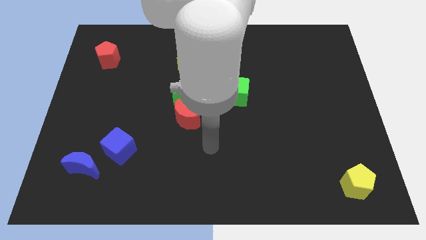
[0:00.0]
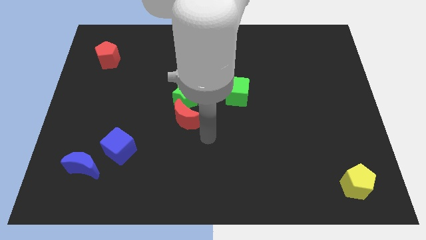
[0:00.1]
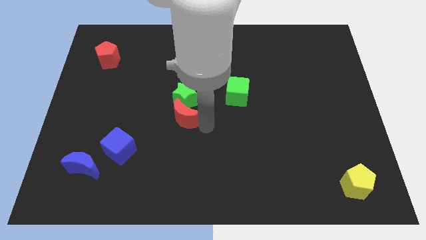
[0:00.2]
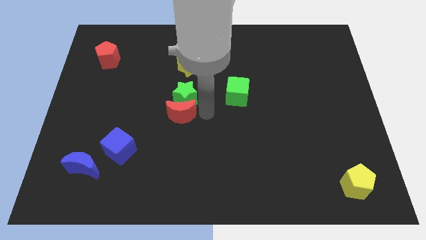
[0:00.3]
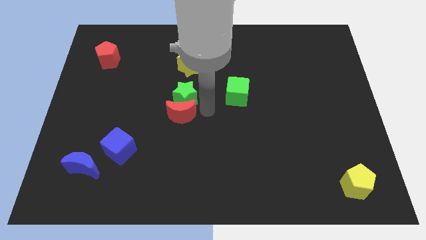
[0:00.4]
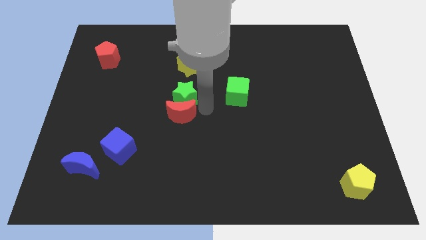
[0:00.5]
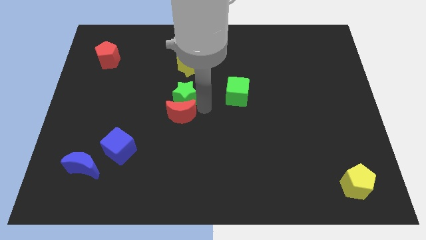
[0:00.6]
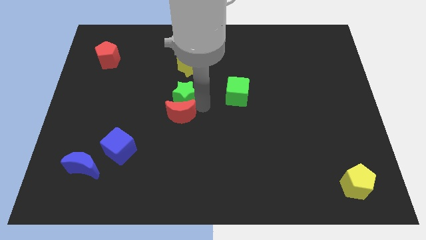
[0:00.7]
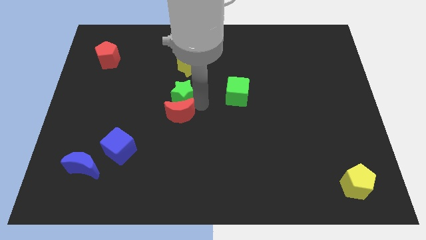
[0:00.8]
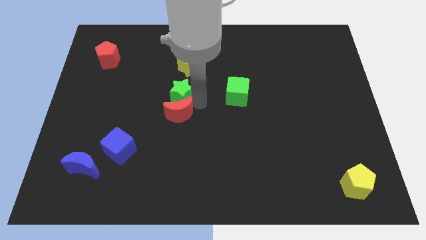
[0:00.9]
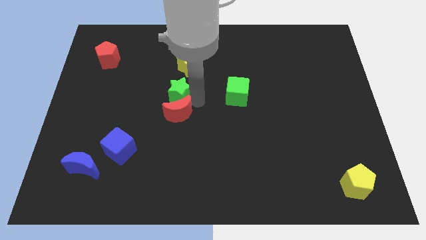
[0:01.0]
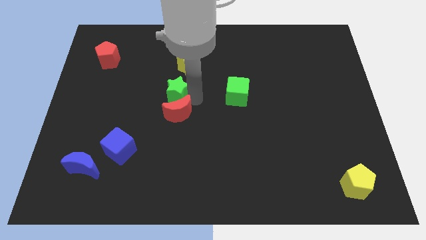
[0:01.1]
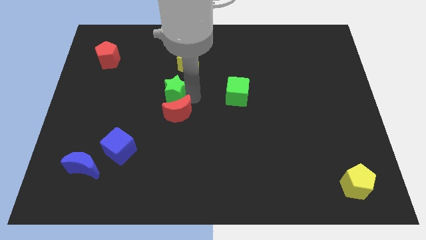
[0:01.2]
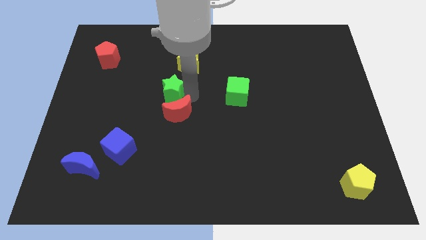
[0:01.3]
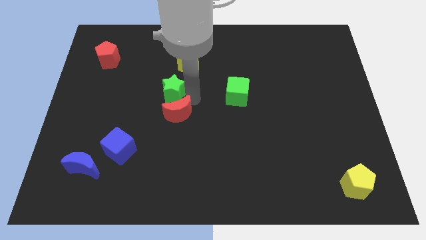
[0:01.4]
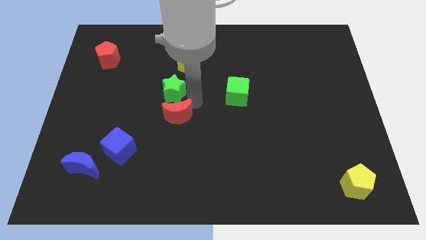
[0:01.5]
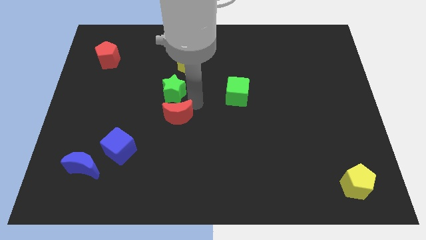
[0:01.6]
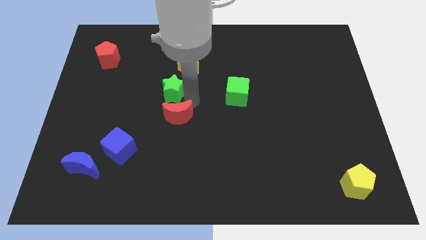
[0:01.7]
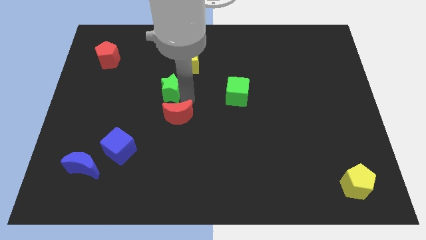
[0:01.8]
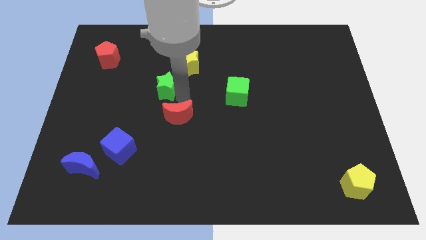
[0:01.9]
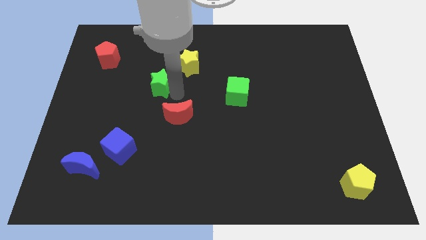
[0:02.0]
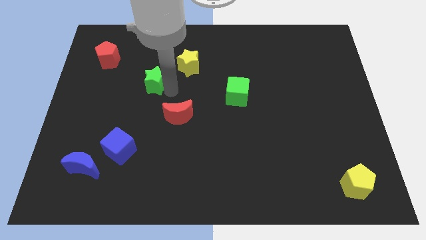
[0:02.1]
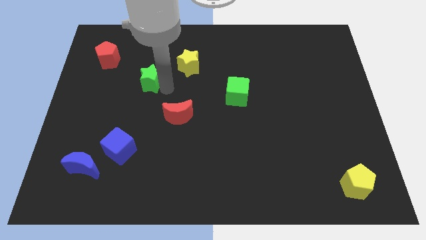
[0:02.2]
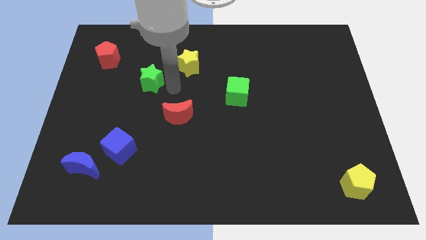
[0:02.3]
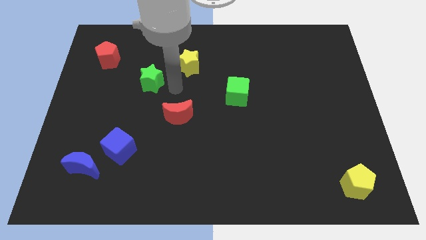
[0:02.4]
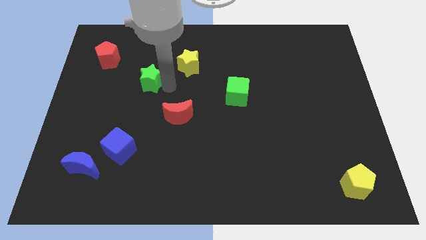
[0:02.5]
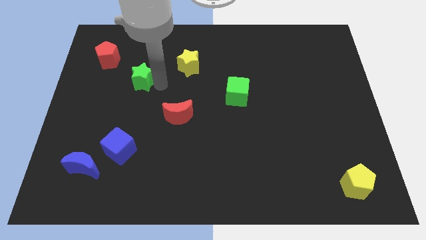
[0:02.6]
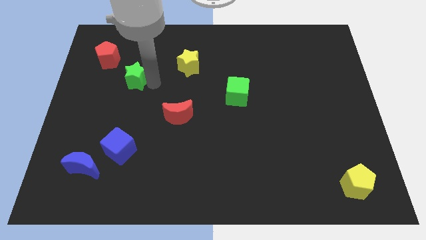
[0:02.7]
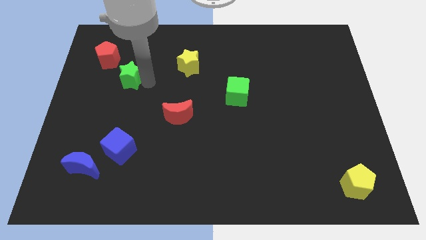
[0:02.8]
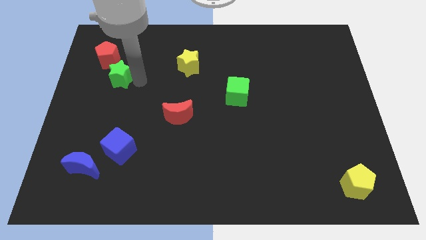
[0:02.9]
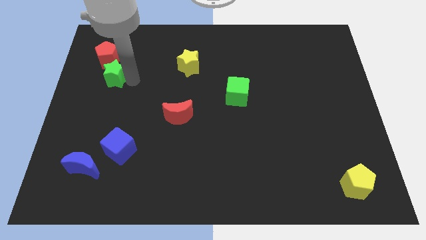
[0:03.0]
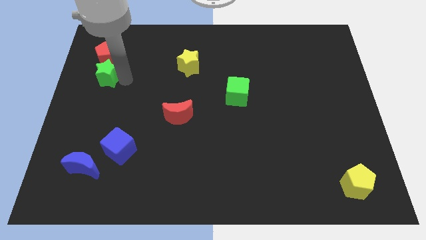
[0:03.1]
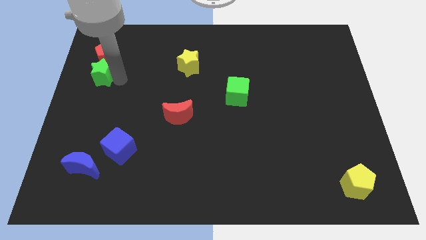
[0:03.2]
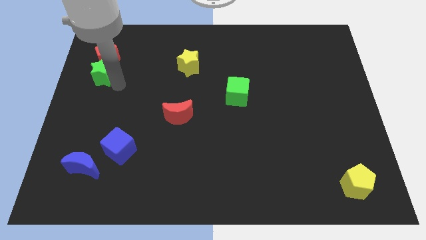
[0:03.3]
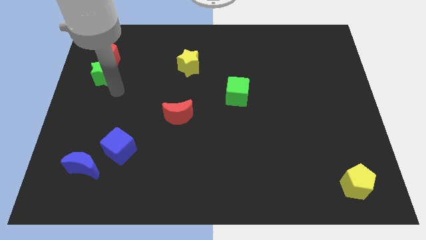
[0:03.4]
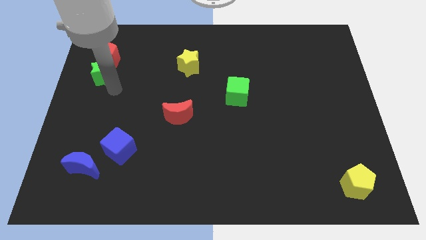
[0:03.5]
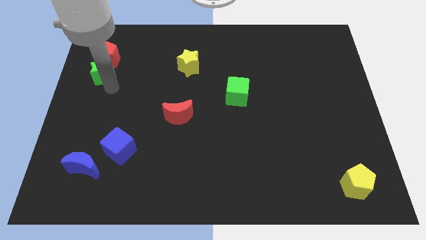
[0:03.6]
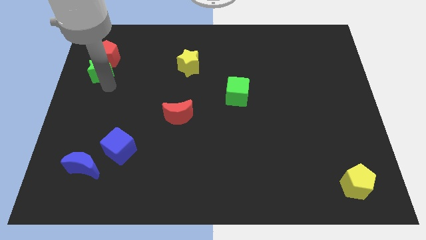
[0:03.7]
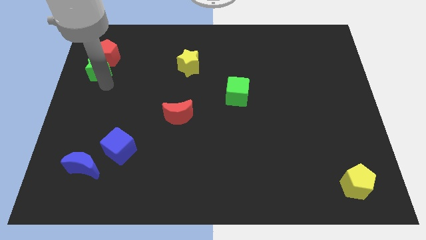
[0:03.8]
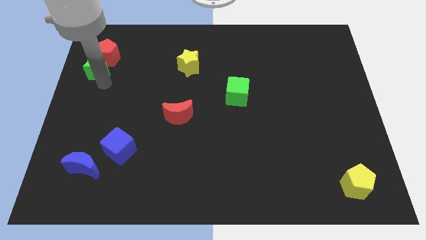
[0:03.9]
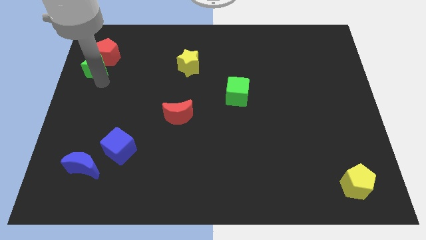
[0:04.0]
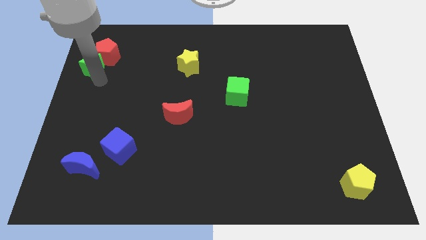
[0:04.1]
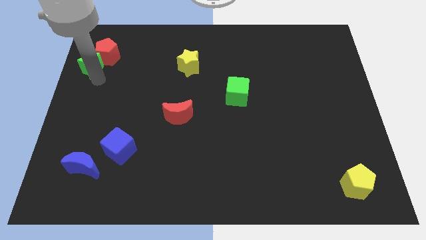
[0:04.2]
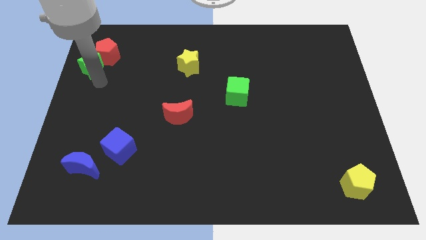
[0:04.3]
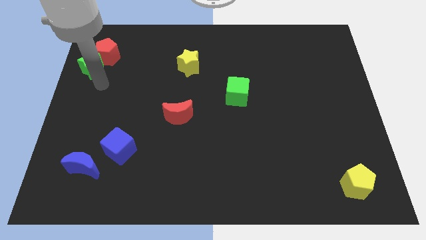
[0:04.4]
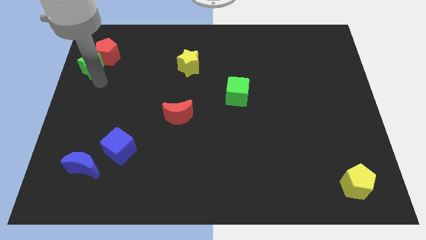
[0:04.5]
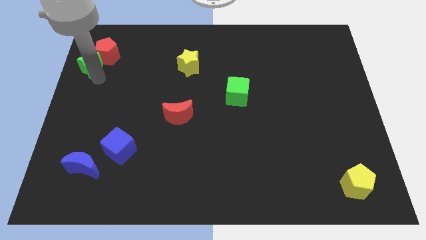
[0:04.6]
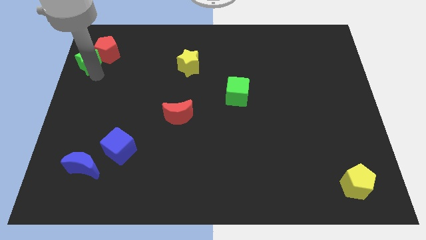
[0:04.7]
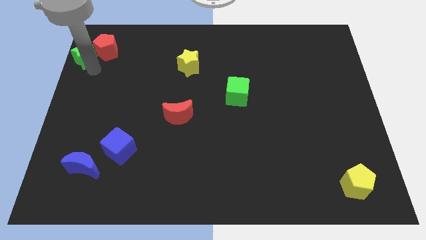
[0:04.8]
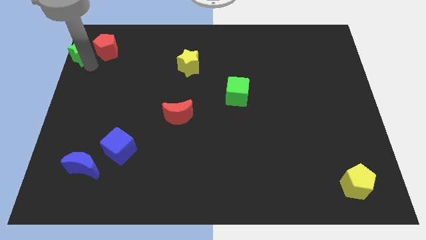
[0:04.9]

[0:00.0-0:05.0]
slide the green star to the top left corner

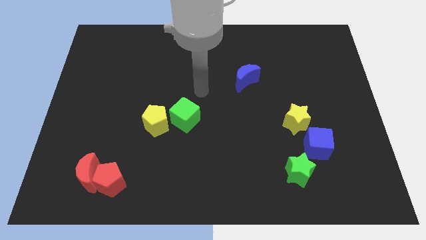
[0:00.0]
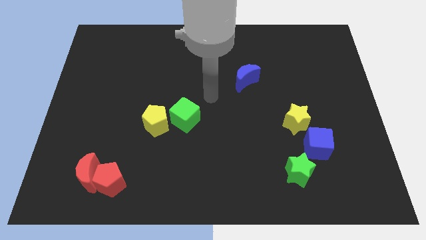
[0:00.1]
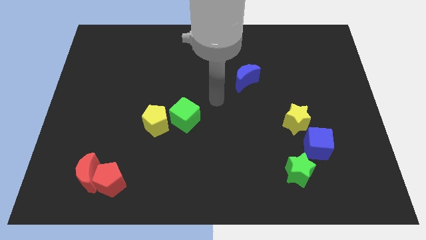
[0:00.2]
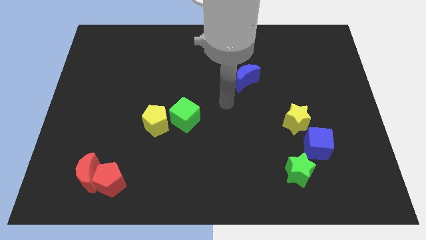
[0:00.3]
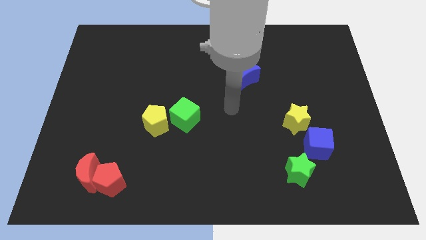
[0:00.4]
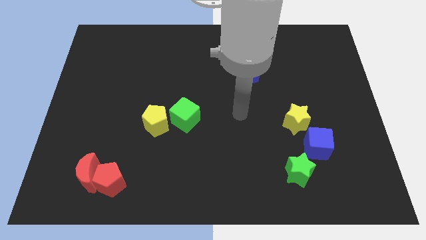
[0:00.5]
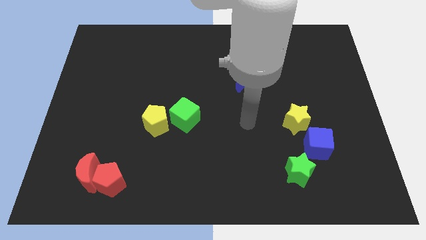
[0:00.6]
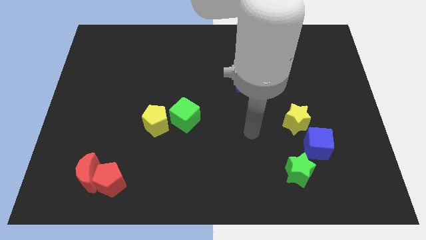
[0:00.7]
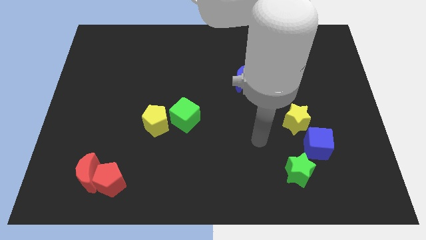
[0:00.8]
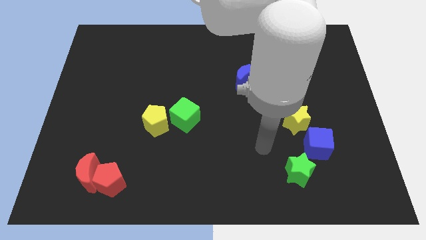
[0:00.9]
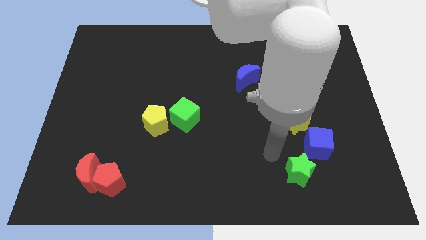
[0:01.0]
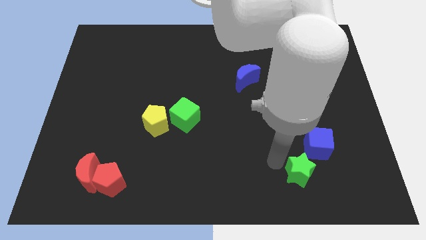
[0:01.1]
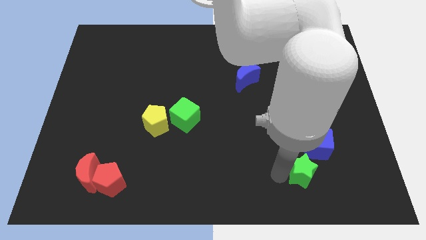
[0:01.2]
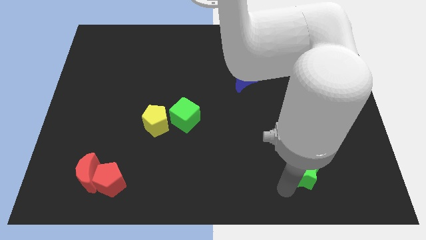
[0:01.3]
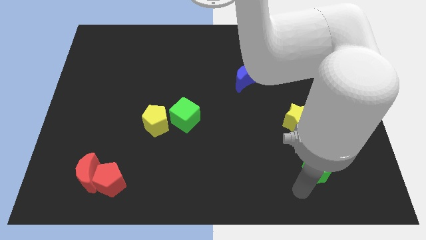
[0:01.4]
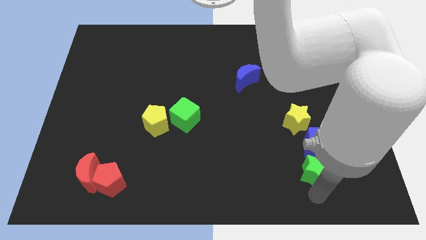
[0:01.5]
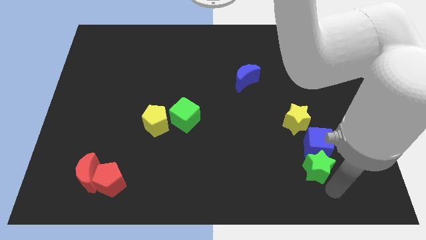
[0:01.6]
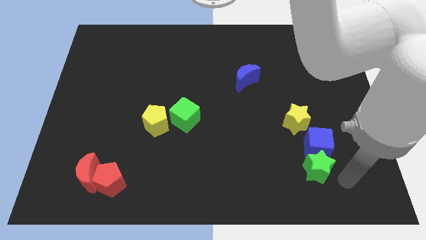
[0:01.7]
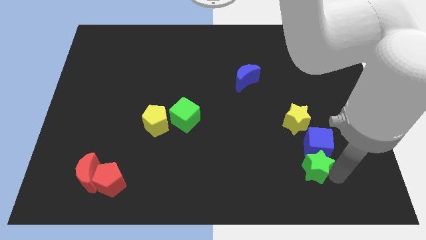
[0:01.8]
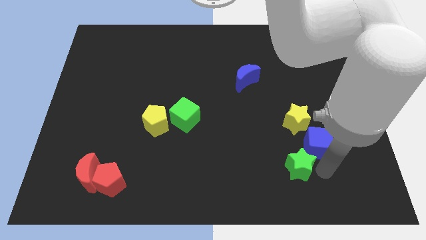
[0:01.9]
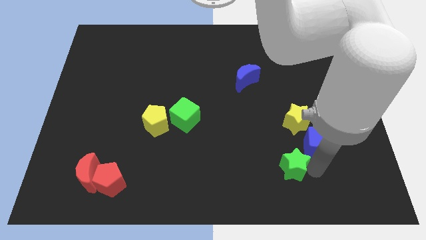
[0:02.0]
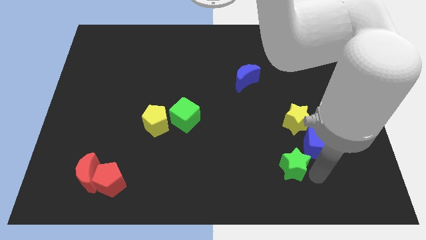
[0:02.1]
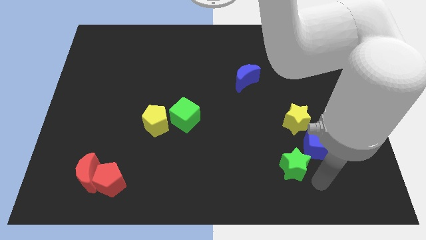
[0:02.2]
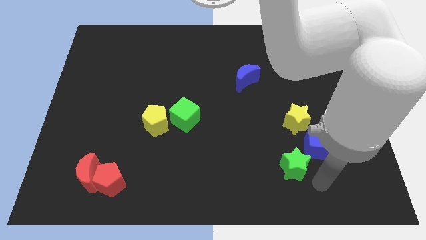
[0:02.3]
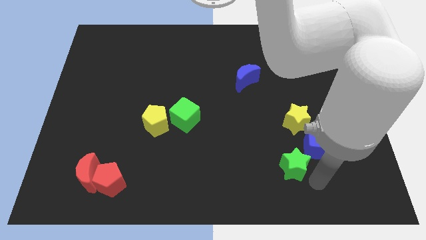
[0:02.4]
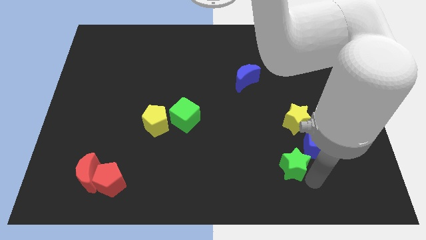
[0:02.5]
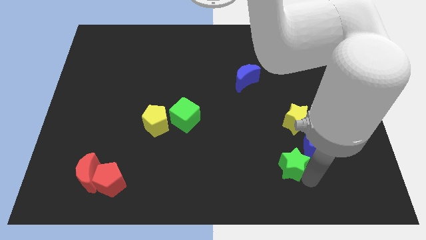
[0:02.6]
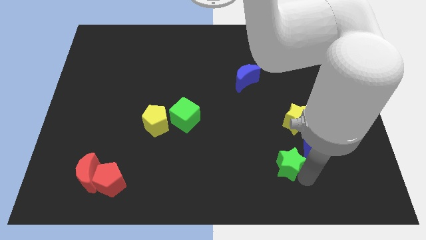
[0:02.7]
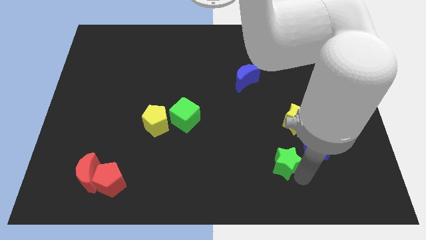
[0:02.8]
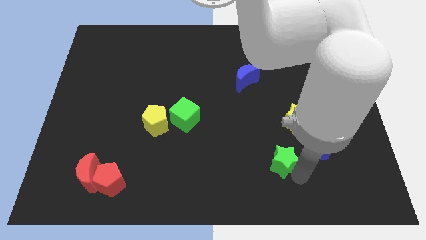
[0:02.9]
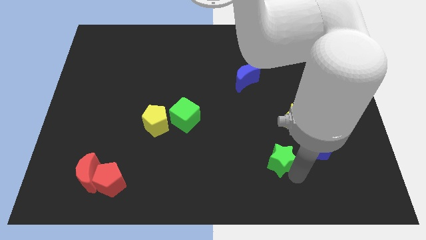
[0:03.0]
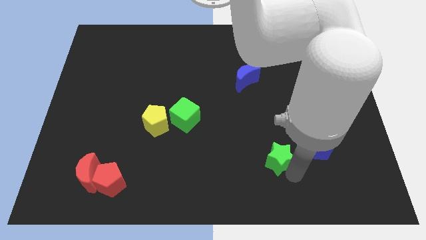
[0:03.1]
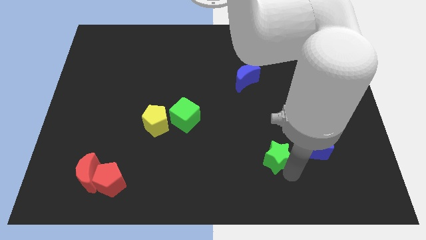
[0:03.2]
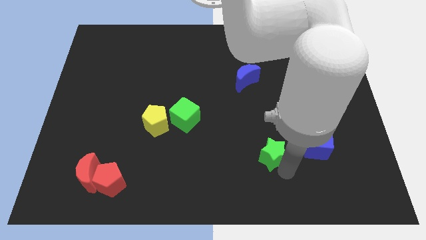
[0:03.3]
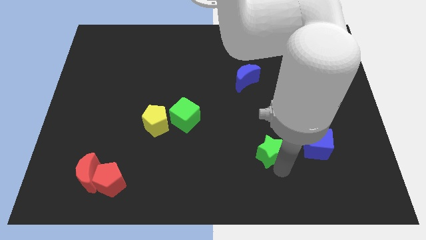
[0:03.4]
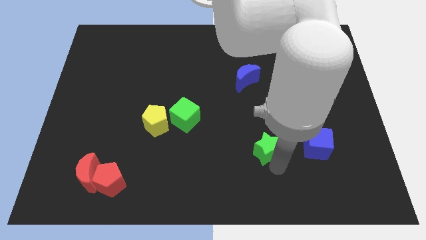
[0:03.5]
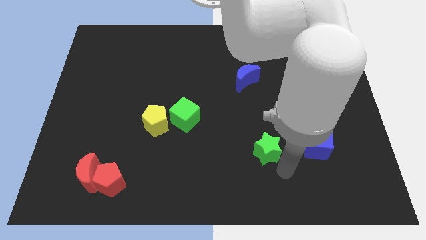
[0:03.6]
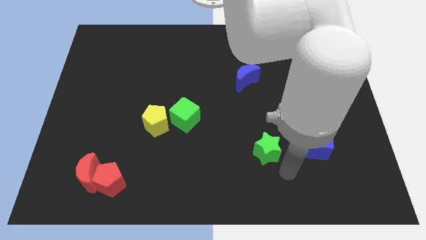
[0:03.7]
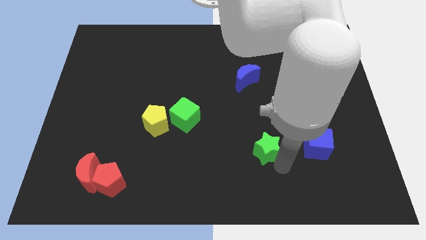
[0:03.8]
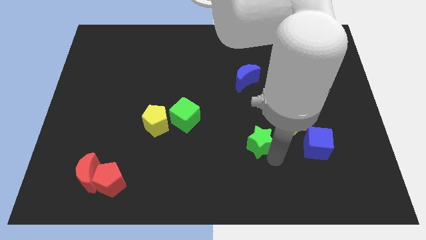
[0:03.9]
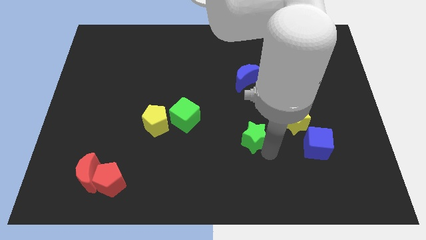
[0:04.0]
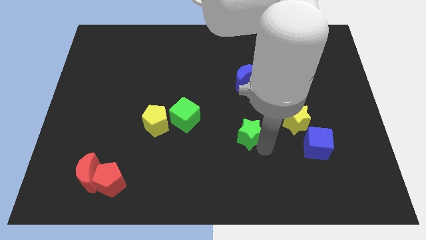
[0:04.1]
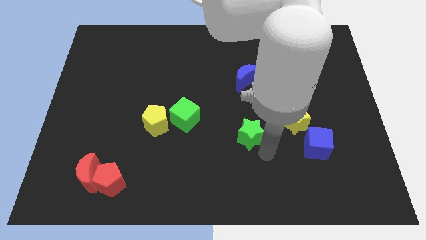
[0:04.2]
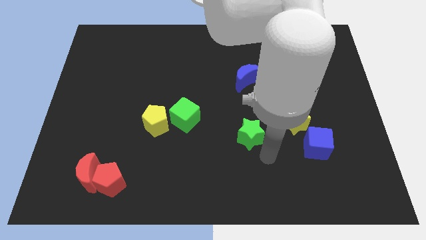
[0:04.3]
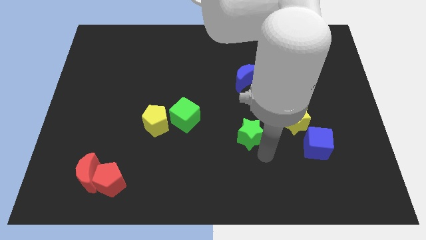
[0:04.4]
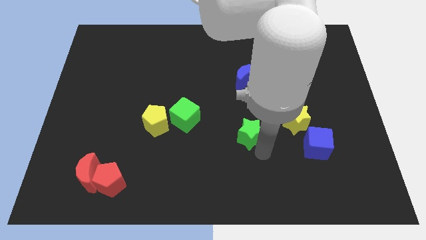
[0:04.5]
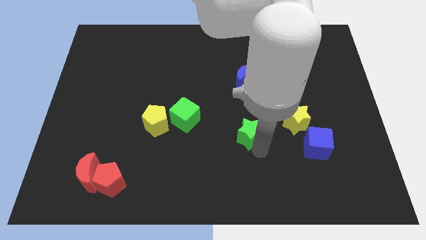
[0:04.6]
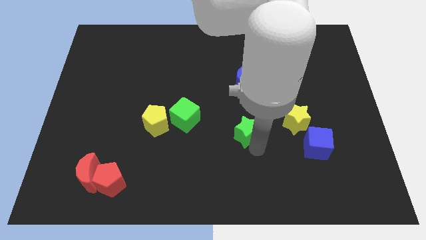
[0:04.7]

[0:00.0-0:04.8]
push the green star to the center
